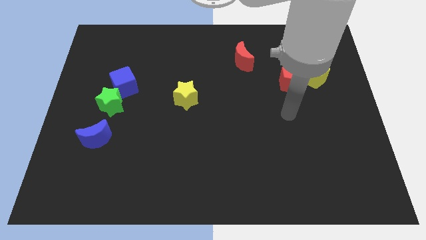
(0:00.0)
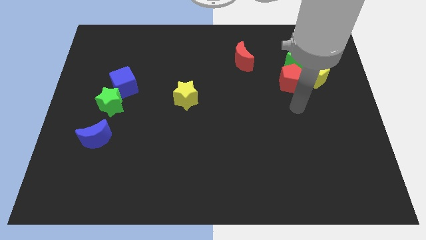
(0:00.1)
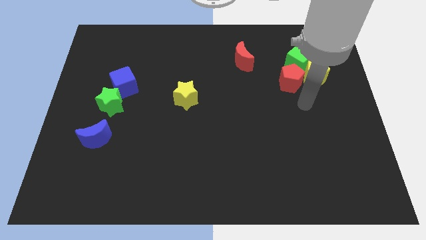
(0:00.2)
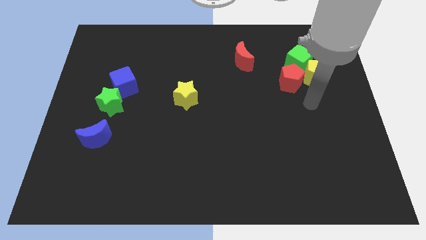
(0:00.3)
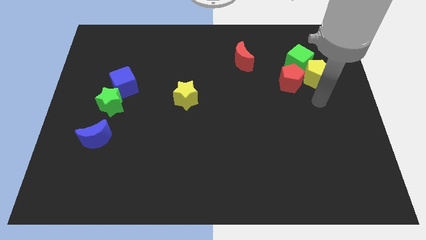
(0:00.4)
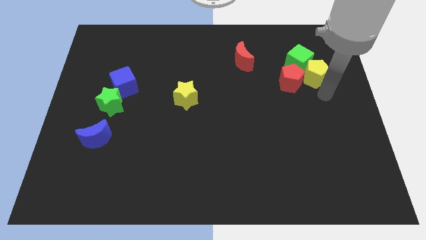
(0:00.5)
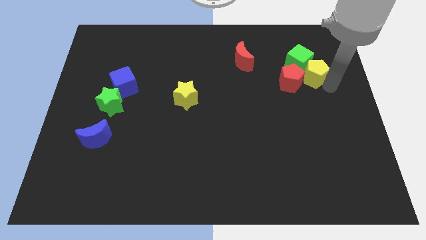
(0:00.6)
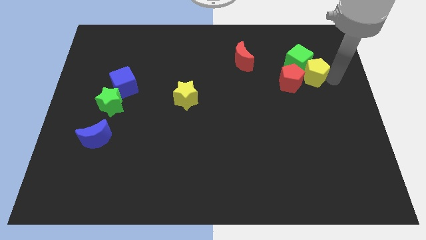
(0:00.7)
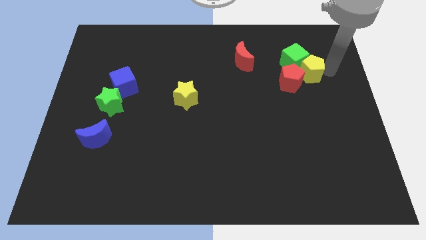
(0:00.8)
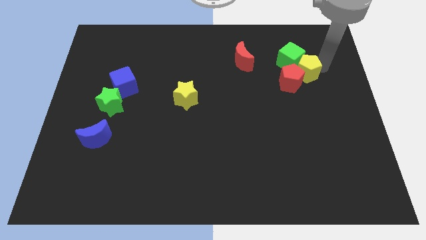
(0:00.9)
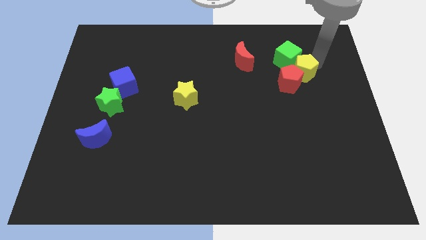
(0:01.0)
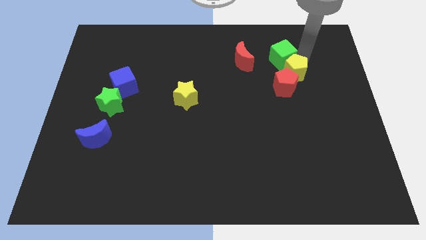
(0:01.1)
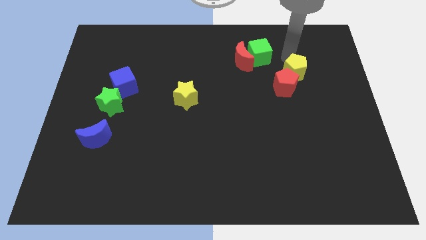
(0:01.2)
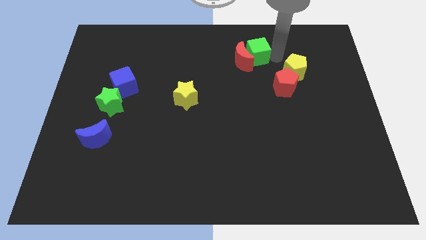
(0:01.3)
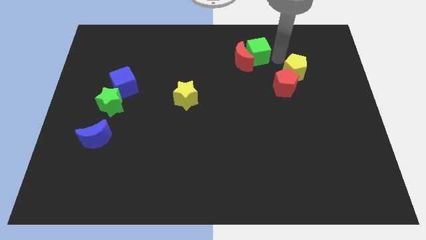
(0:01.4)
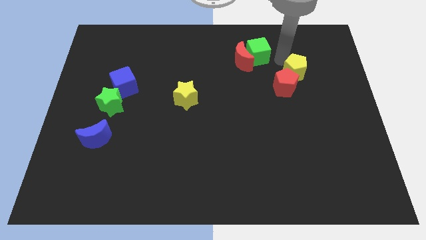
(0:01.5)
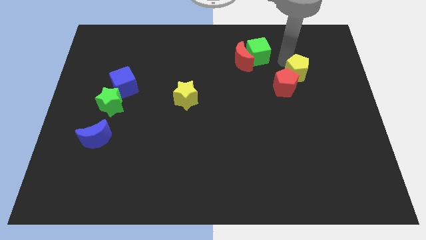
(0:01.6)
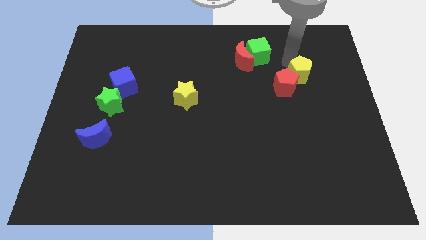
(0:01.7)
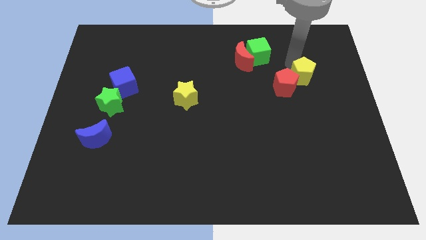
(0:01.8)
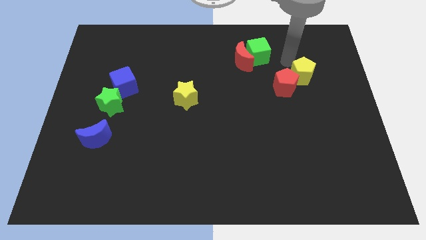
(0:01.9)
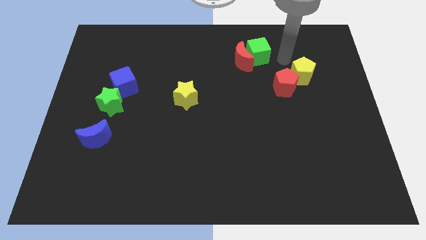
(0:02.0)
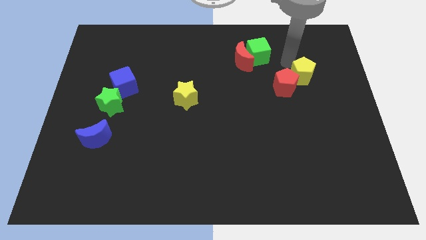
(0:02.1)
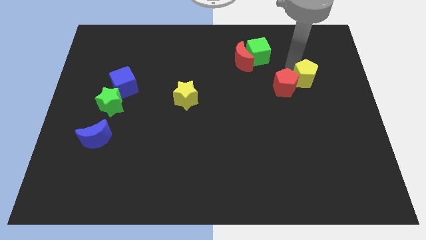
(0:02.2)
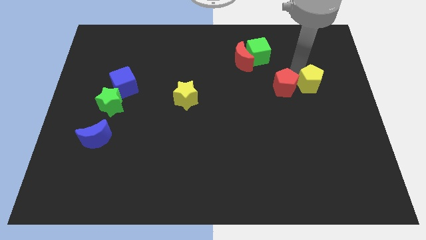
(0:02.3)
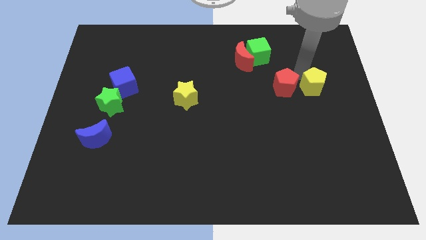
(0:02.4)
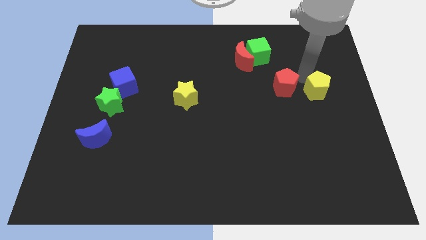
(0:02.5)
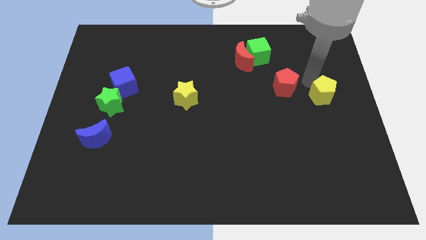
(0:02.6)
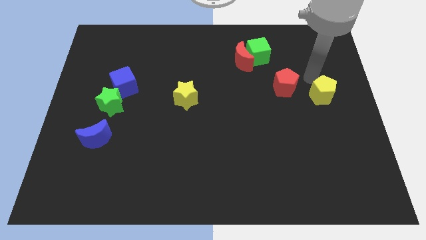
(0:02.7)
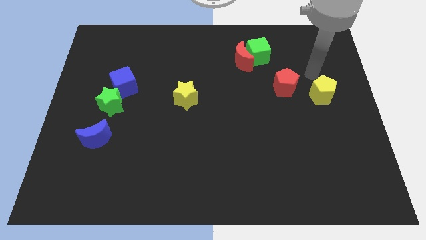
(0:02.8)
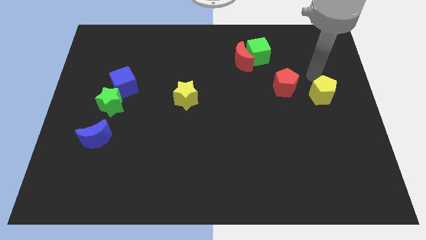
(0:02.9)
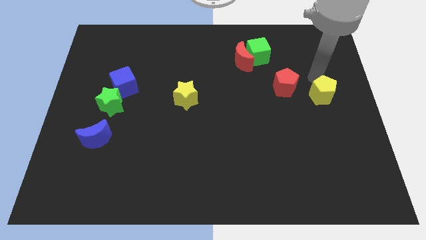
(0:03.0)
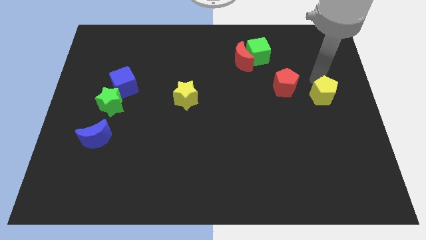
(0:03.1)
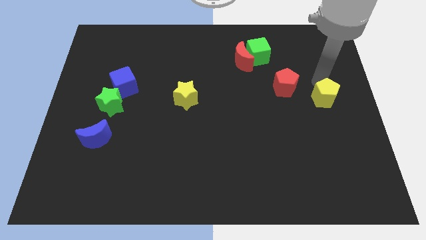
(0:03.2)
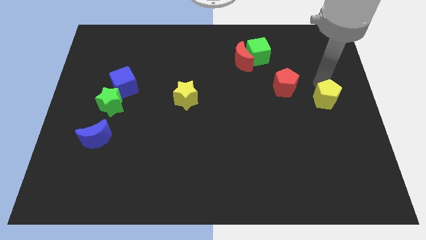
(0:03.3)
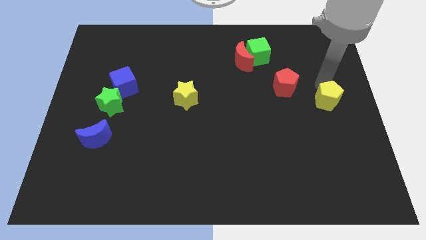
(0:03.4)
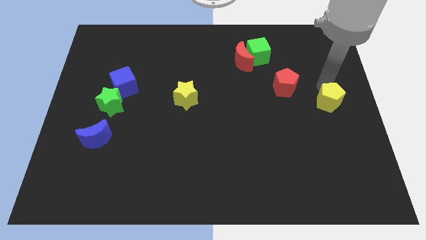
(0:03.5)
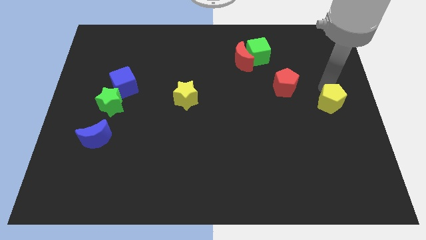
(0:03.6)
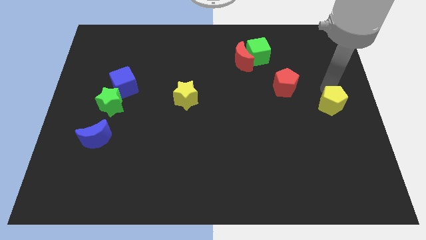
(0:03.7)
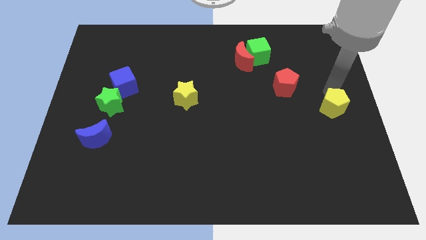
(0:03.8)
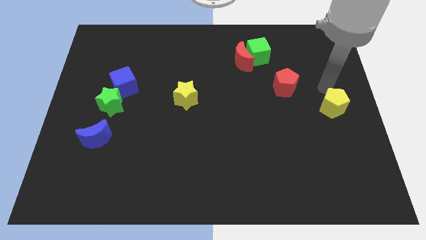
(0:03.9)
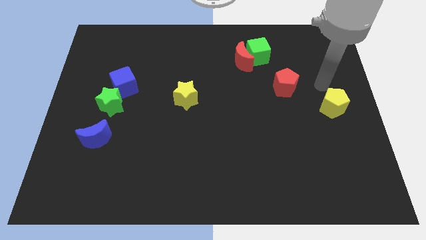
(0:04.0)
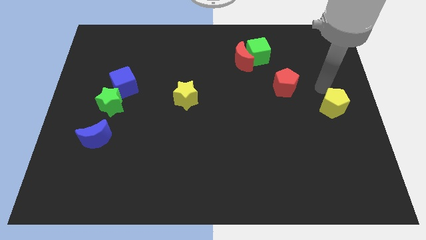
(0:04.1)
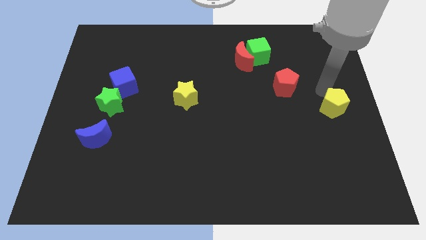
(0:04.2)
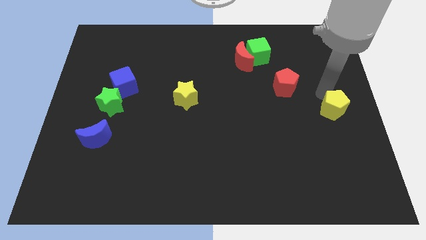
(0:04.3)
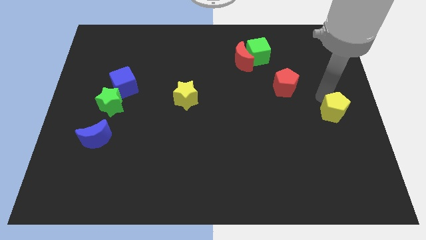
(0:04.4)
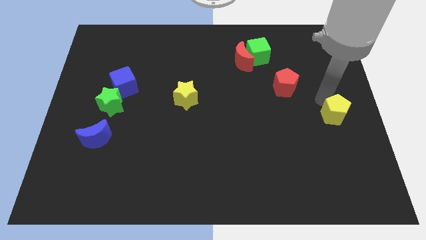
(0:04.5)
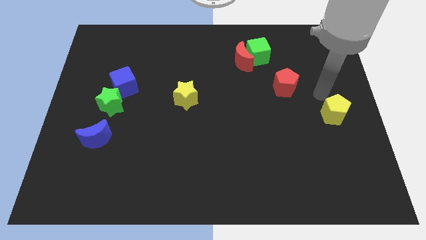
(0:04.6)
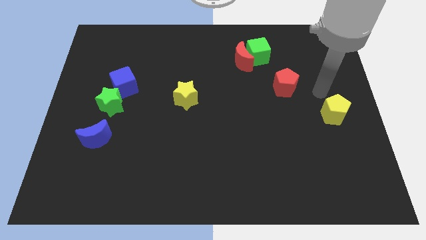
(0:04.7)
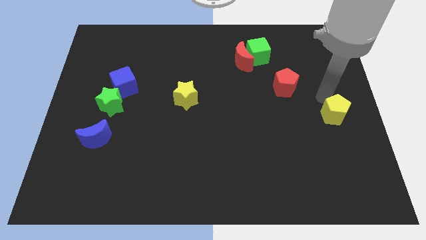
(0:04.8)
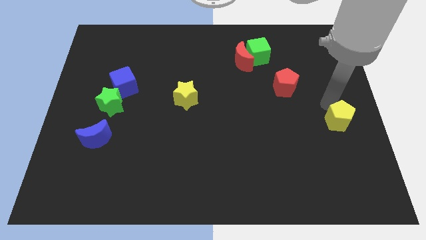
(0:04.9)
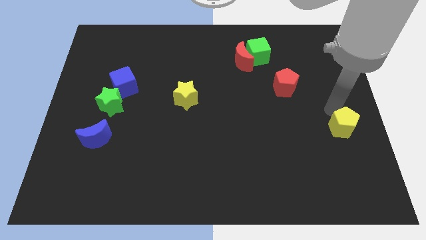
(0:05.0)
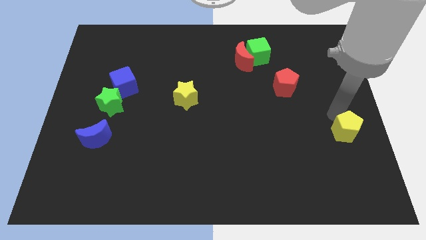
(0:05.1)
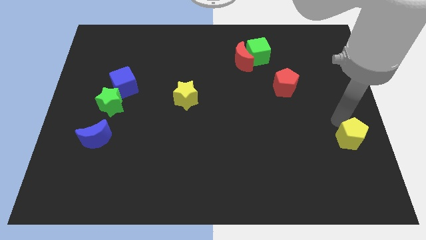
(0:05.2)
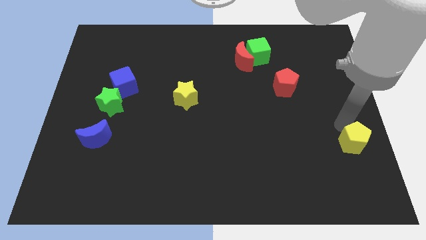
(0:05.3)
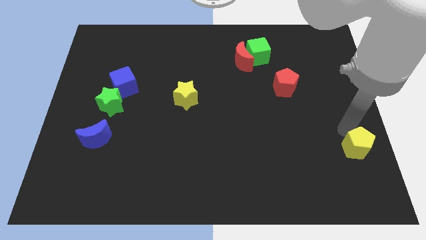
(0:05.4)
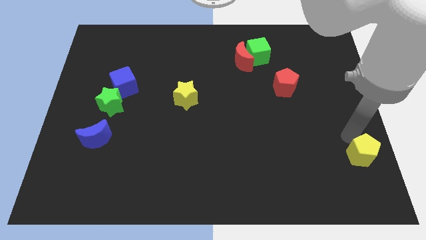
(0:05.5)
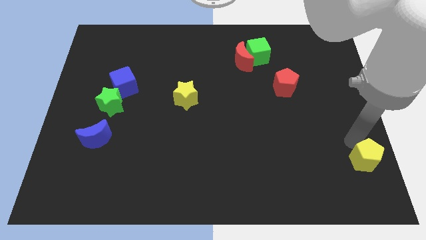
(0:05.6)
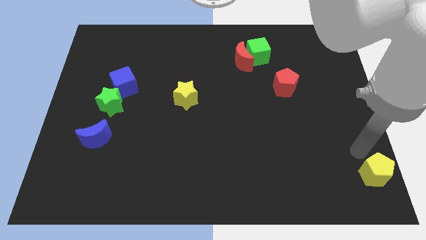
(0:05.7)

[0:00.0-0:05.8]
put the yellow pentagon to the lower right corner

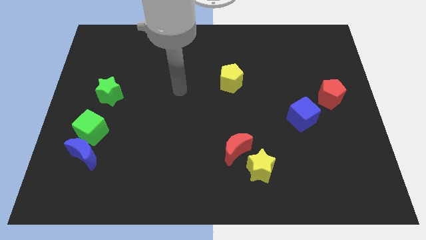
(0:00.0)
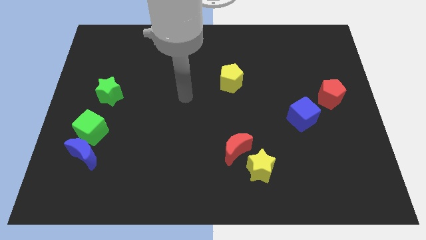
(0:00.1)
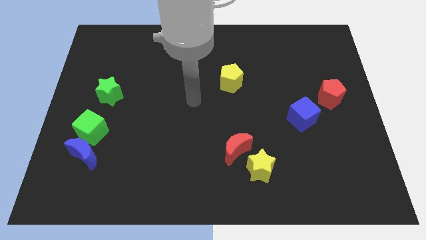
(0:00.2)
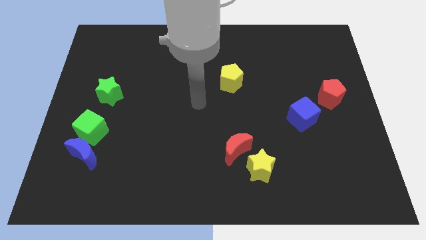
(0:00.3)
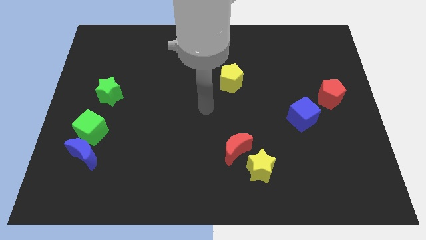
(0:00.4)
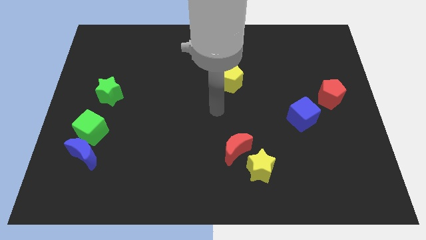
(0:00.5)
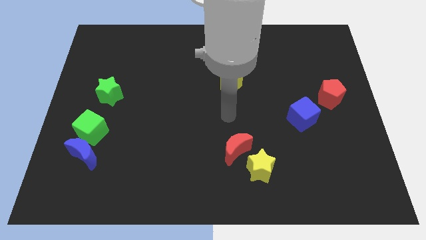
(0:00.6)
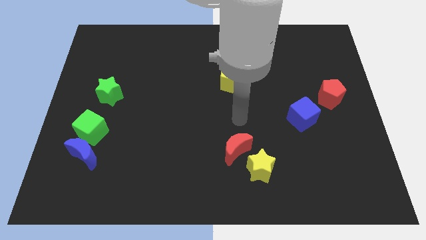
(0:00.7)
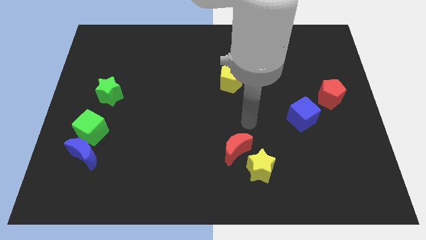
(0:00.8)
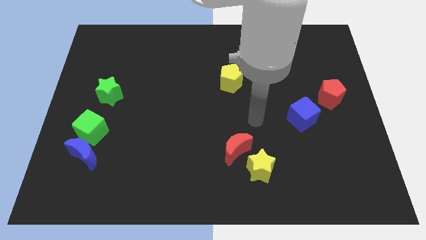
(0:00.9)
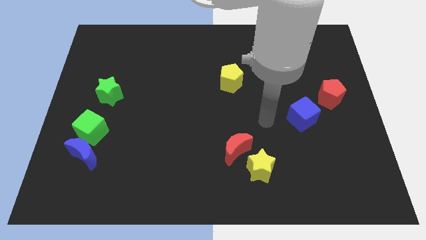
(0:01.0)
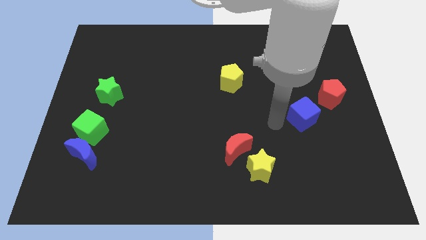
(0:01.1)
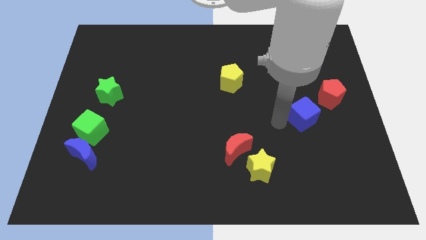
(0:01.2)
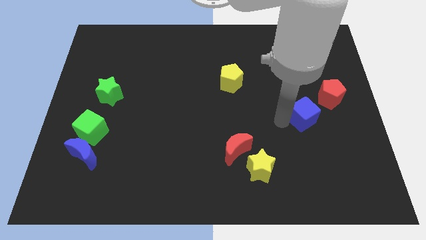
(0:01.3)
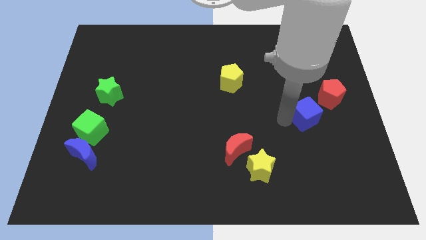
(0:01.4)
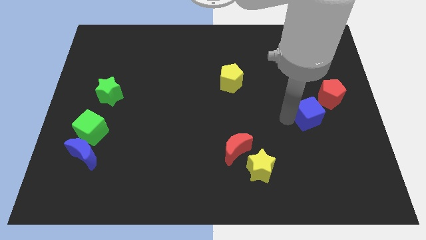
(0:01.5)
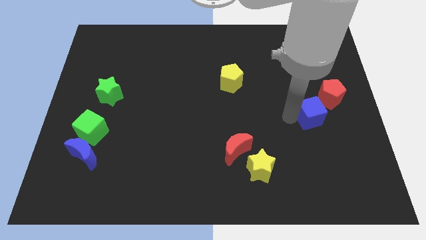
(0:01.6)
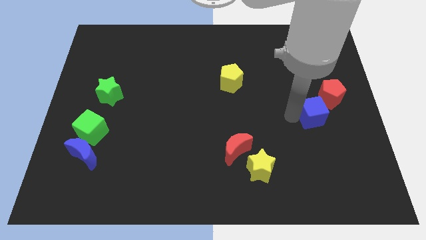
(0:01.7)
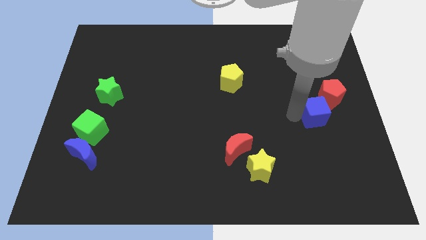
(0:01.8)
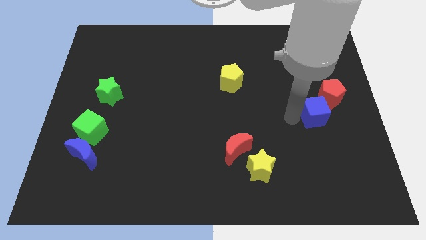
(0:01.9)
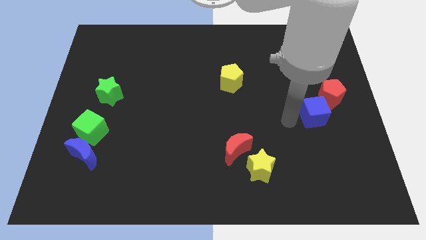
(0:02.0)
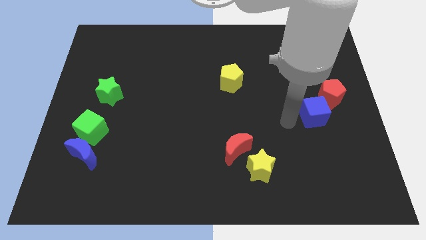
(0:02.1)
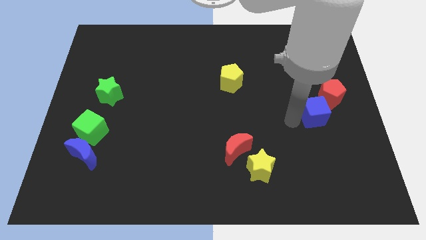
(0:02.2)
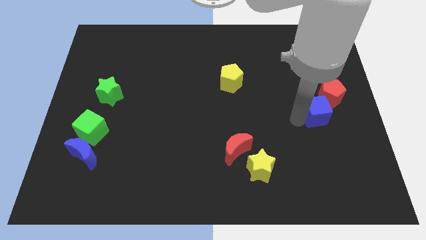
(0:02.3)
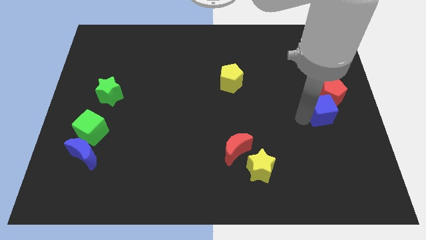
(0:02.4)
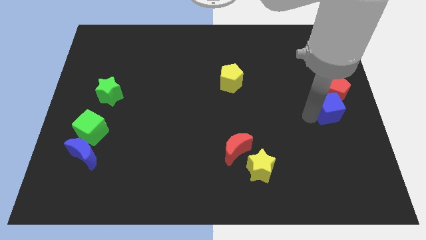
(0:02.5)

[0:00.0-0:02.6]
push the blue cube to the right side of the board
